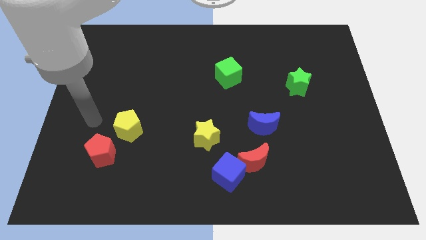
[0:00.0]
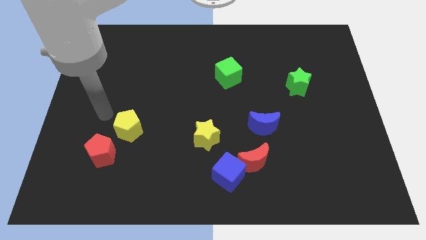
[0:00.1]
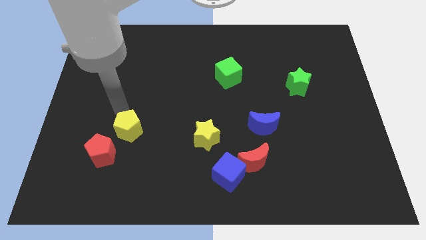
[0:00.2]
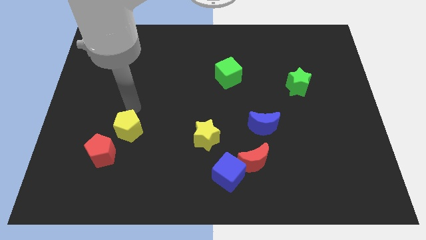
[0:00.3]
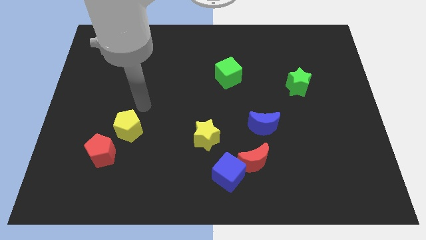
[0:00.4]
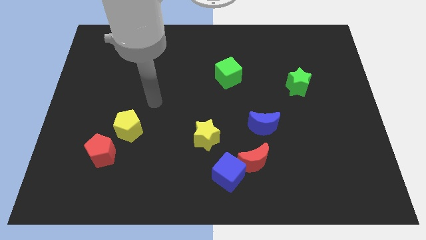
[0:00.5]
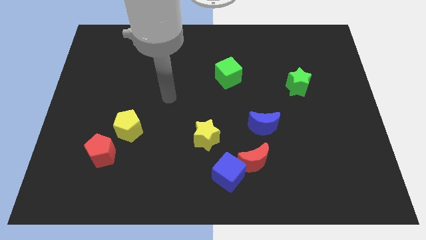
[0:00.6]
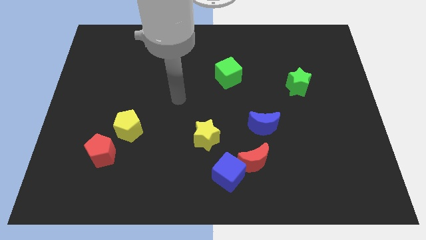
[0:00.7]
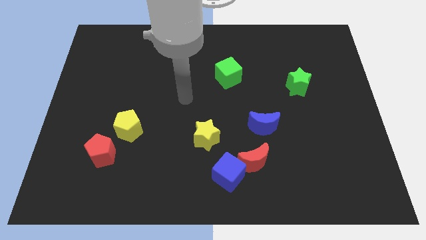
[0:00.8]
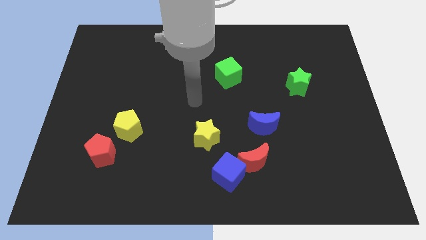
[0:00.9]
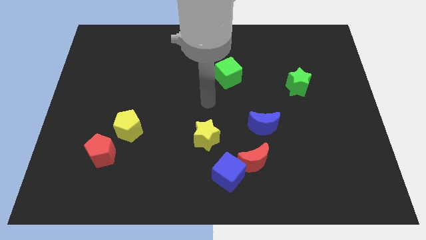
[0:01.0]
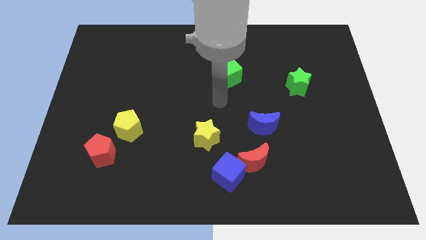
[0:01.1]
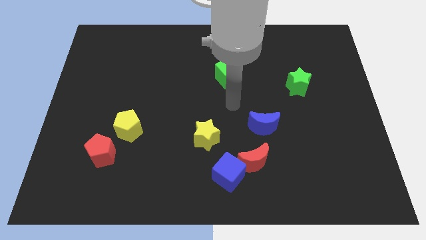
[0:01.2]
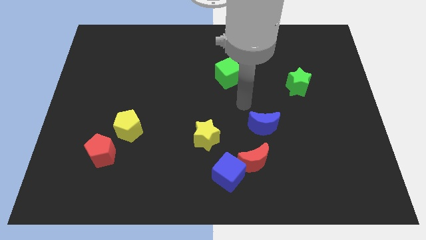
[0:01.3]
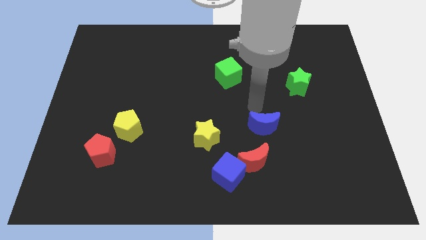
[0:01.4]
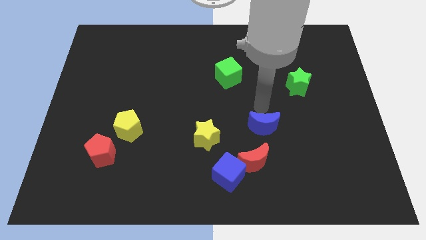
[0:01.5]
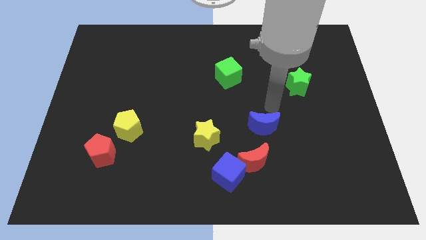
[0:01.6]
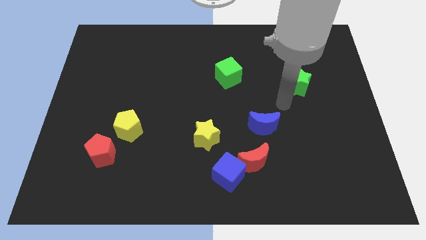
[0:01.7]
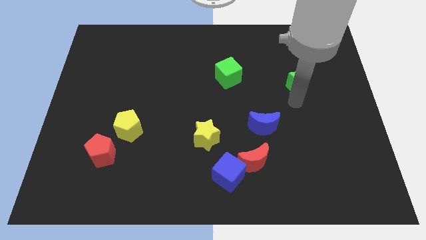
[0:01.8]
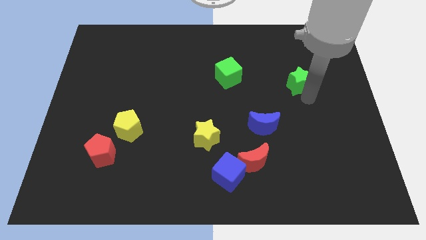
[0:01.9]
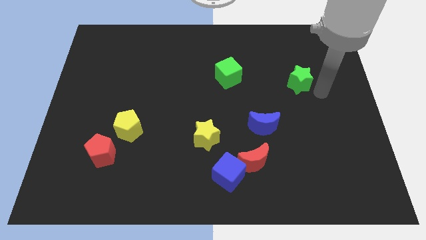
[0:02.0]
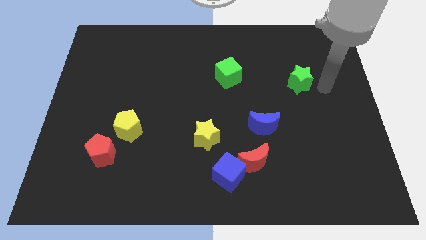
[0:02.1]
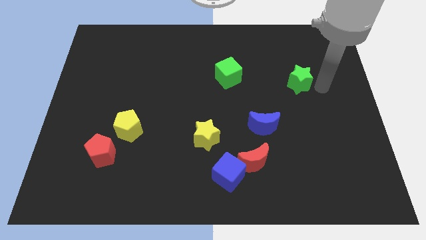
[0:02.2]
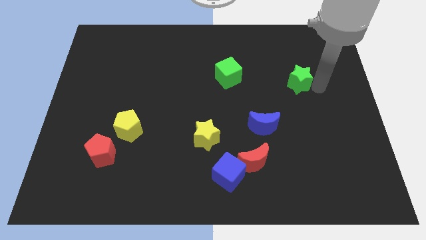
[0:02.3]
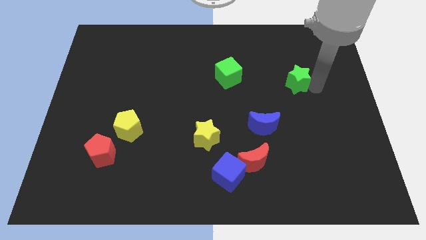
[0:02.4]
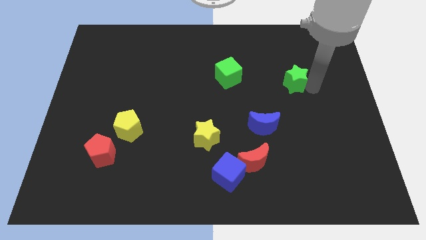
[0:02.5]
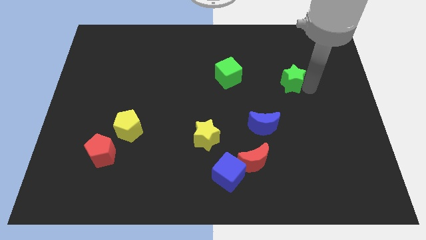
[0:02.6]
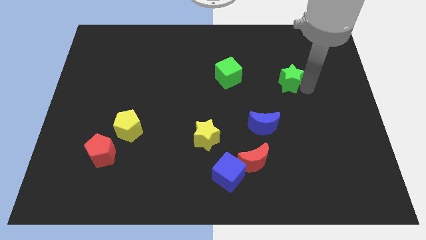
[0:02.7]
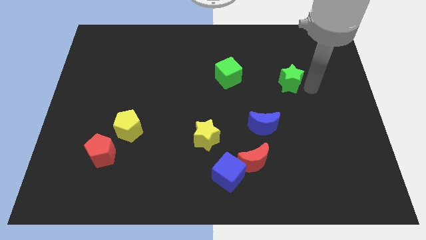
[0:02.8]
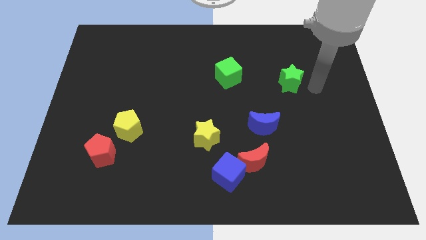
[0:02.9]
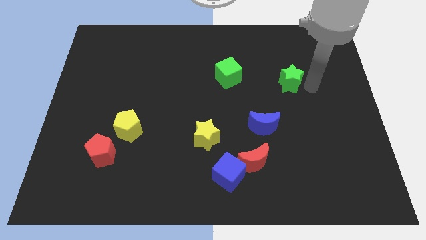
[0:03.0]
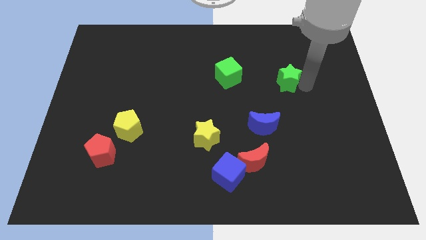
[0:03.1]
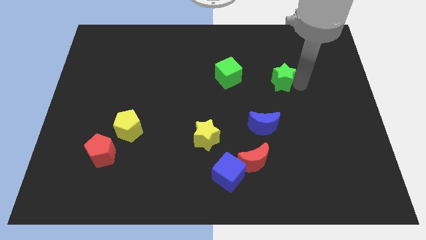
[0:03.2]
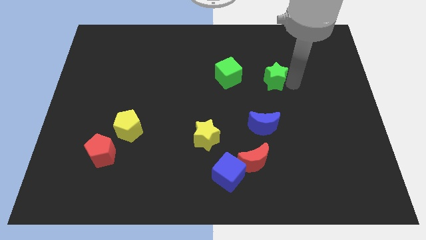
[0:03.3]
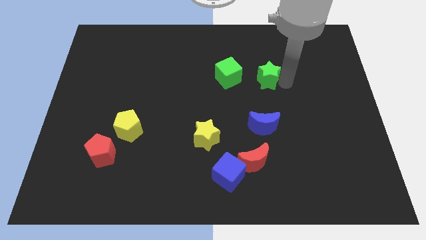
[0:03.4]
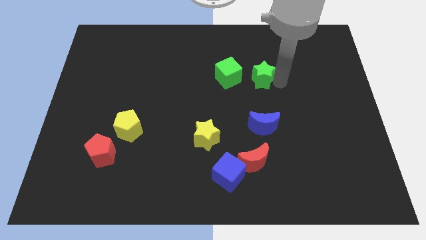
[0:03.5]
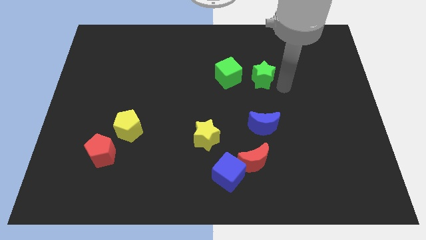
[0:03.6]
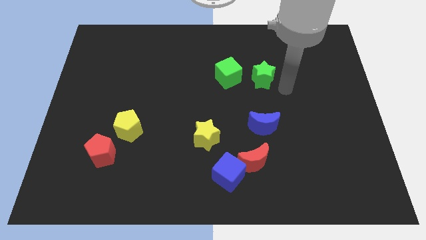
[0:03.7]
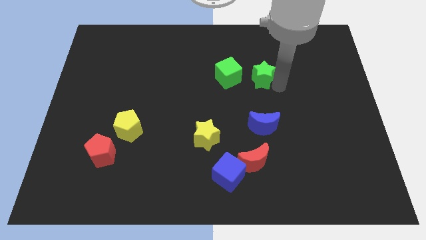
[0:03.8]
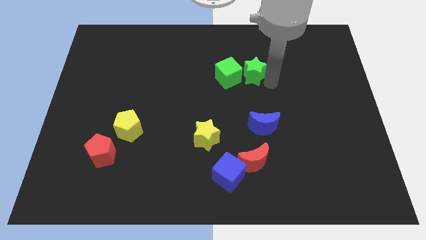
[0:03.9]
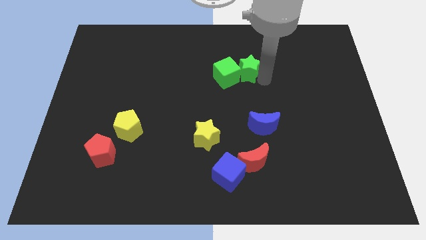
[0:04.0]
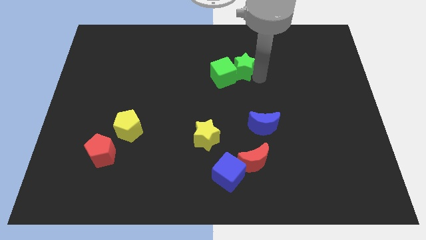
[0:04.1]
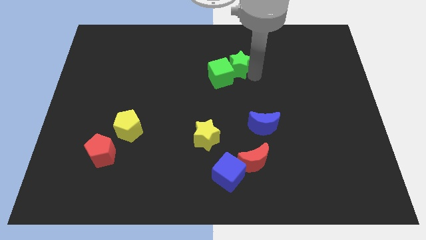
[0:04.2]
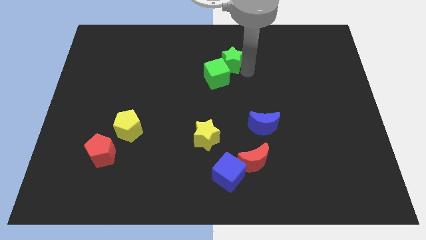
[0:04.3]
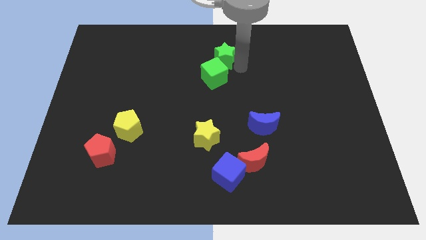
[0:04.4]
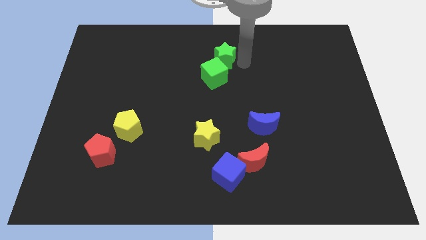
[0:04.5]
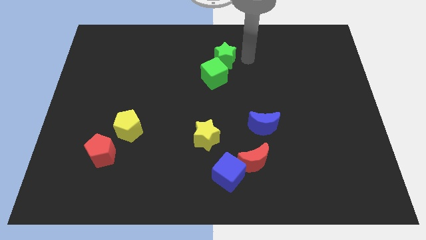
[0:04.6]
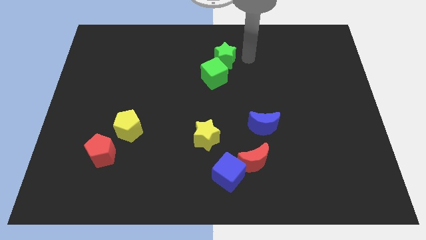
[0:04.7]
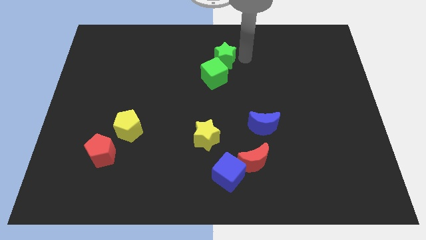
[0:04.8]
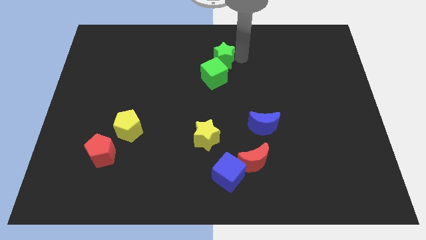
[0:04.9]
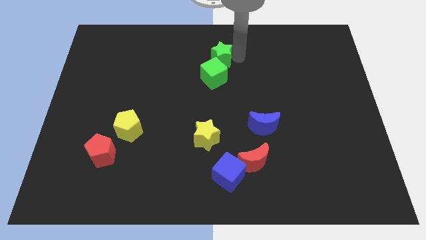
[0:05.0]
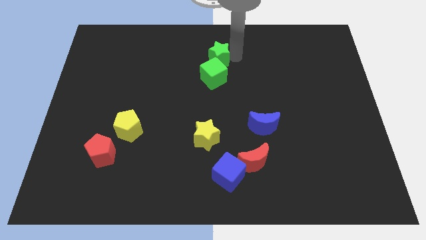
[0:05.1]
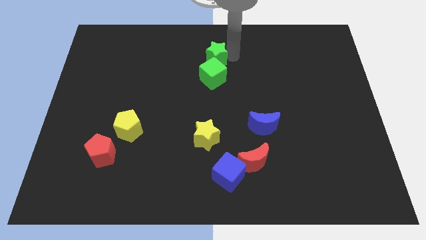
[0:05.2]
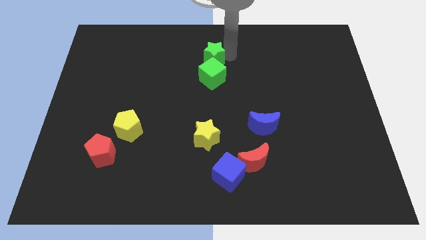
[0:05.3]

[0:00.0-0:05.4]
slide the green star to the top left of the green cube

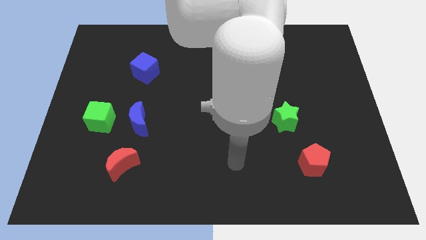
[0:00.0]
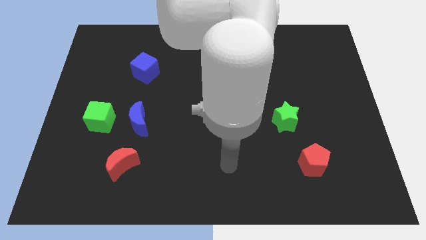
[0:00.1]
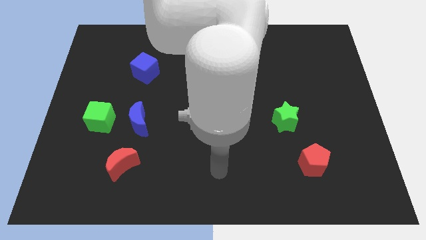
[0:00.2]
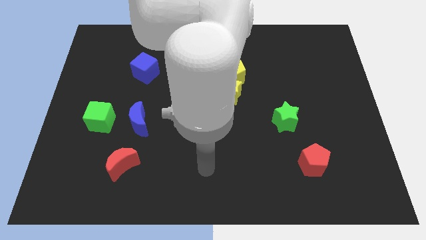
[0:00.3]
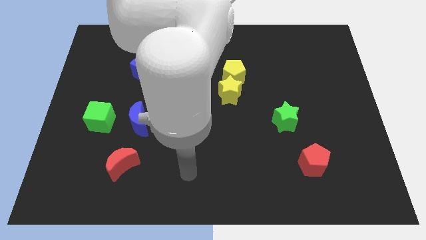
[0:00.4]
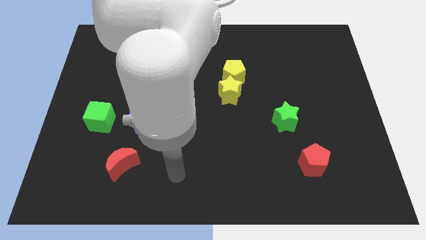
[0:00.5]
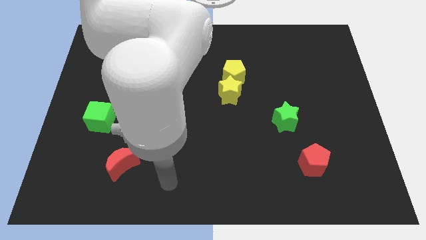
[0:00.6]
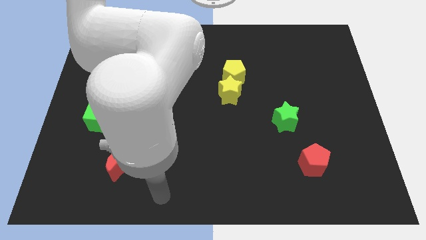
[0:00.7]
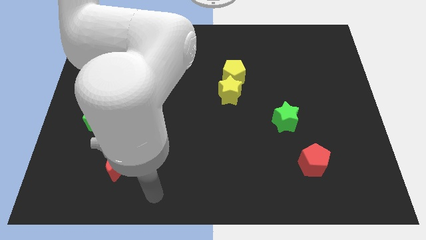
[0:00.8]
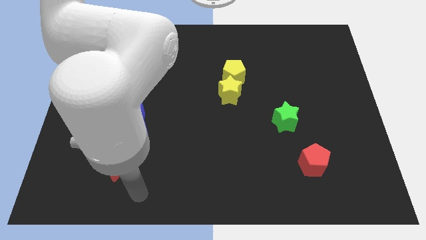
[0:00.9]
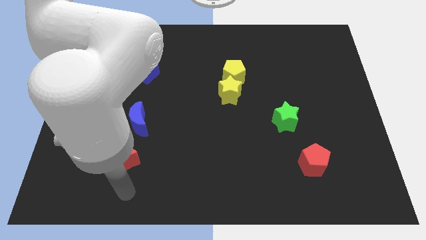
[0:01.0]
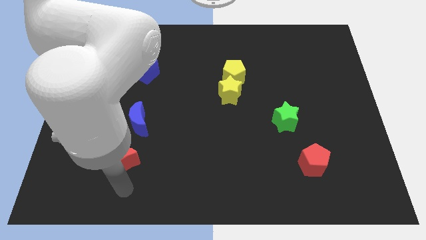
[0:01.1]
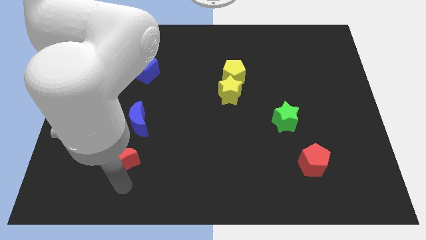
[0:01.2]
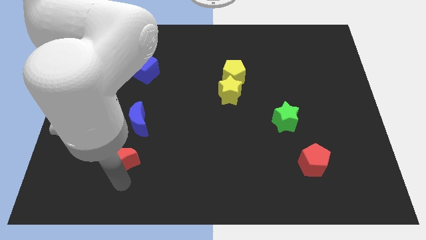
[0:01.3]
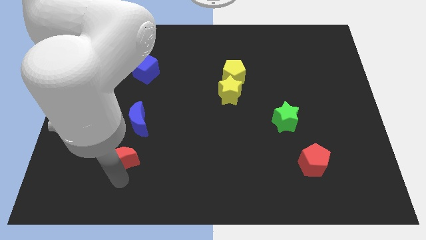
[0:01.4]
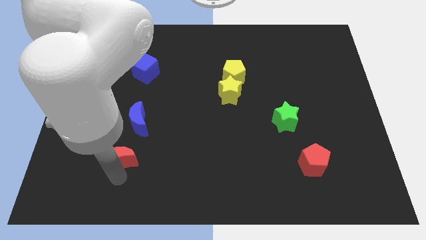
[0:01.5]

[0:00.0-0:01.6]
slide the red moon to the bottom right of the green cube
